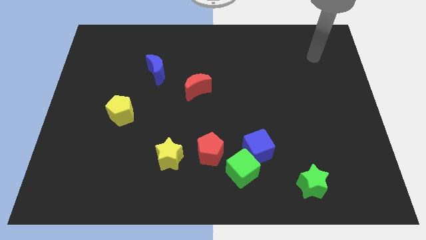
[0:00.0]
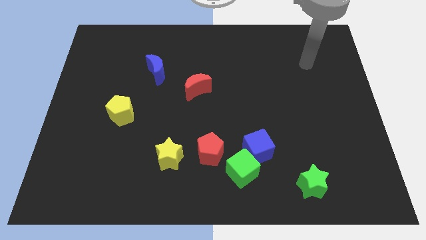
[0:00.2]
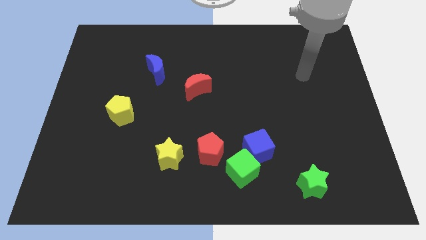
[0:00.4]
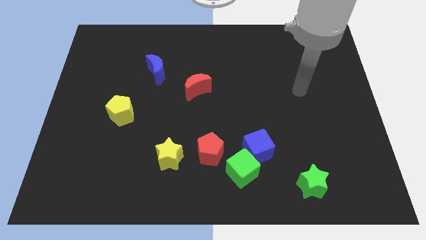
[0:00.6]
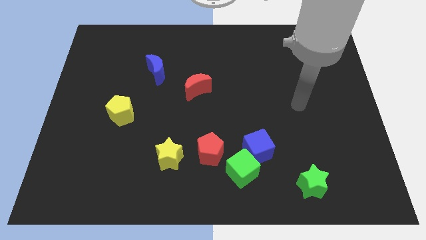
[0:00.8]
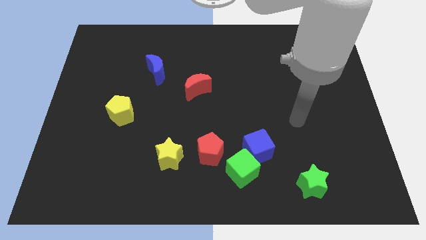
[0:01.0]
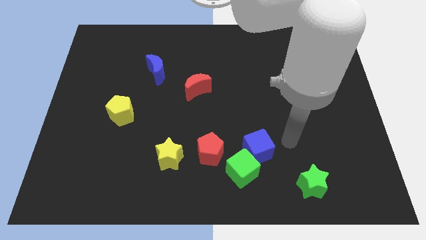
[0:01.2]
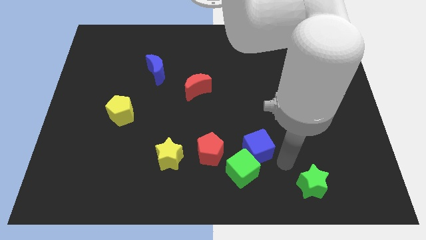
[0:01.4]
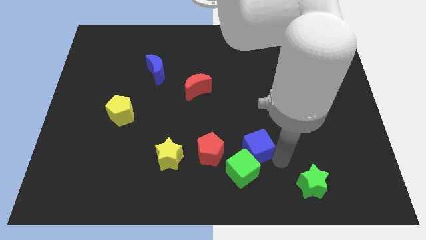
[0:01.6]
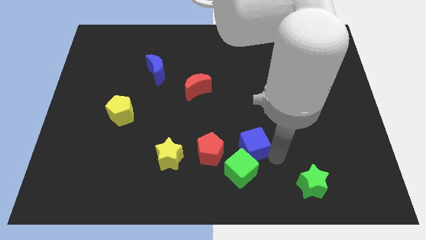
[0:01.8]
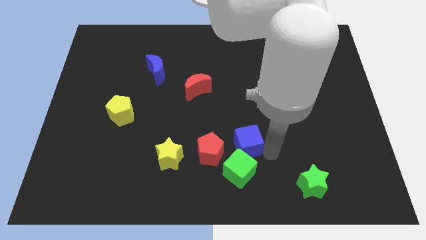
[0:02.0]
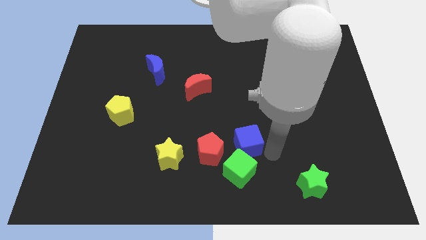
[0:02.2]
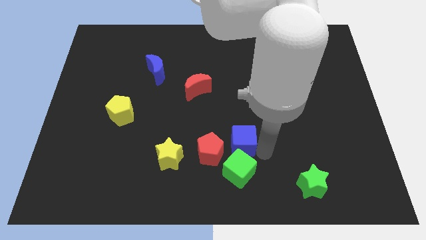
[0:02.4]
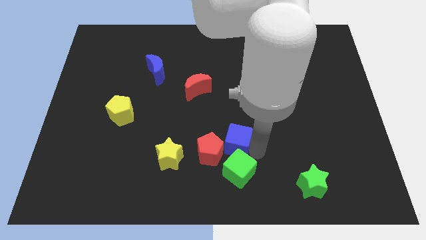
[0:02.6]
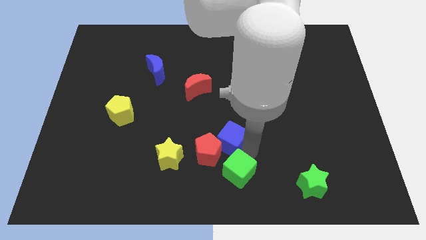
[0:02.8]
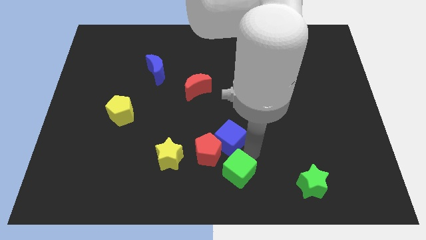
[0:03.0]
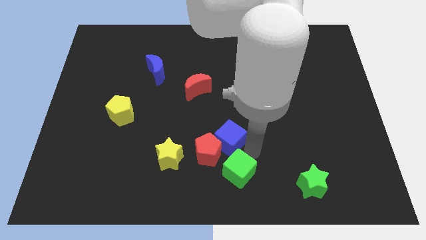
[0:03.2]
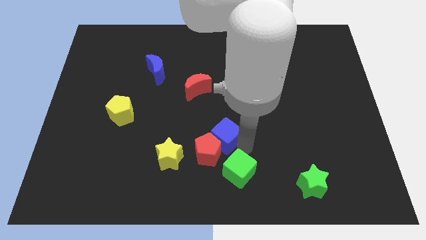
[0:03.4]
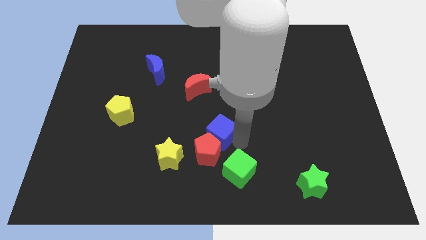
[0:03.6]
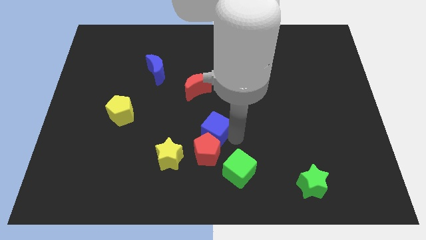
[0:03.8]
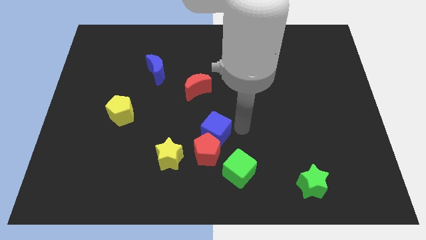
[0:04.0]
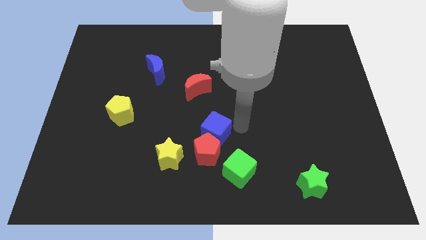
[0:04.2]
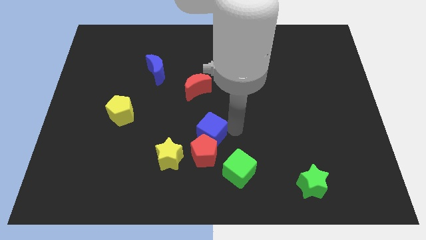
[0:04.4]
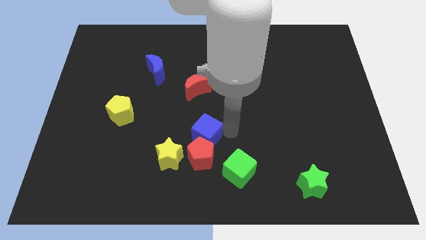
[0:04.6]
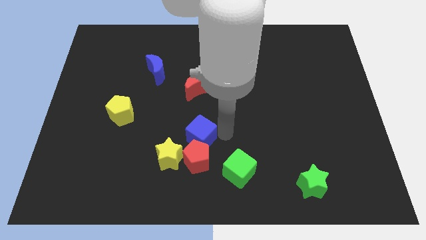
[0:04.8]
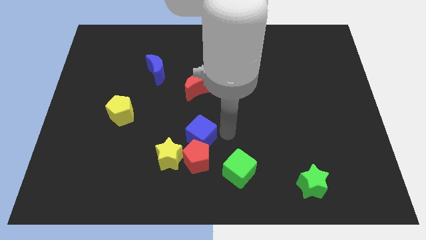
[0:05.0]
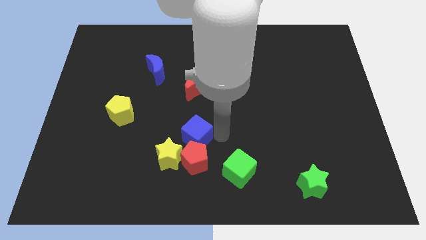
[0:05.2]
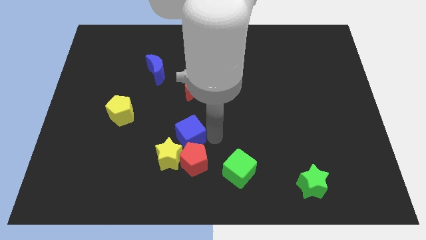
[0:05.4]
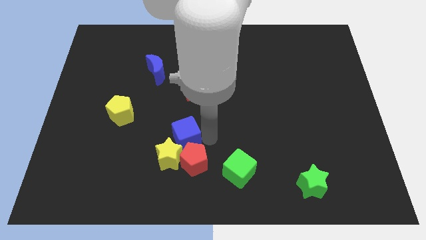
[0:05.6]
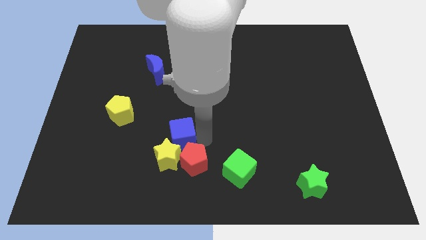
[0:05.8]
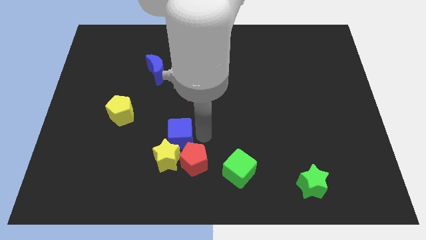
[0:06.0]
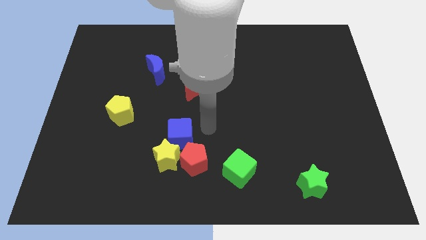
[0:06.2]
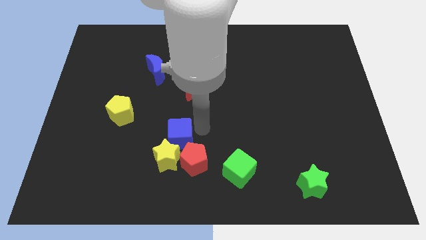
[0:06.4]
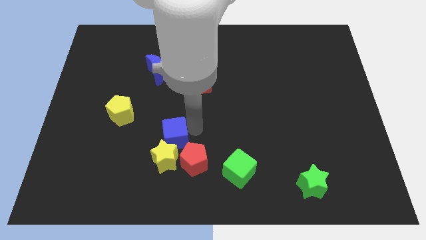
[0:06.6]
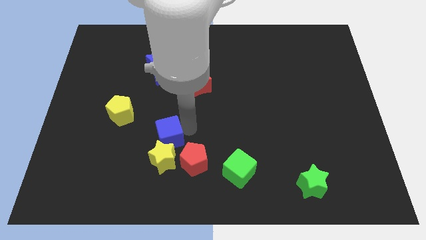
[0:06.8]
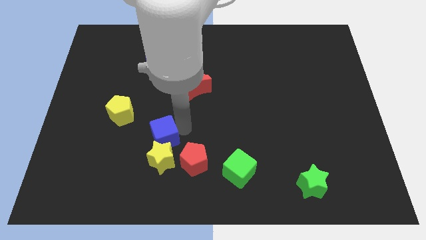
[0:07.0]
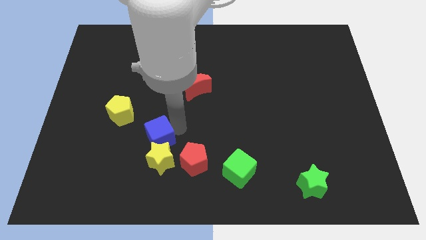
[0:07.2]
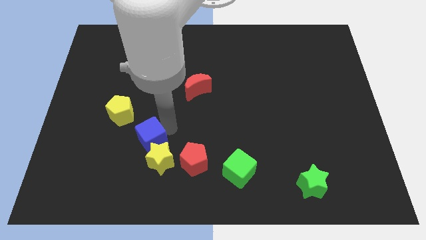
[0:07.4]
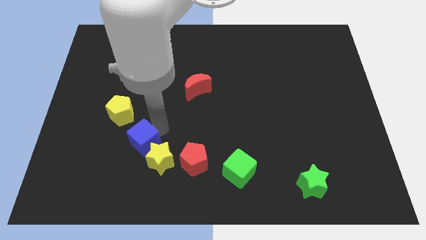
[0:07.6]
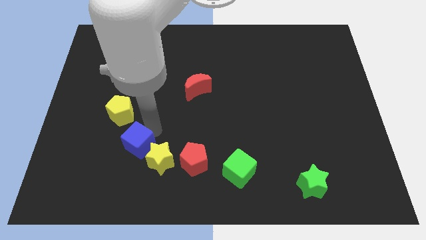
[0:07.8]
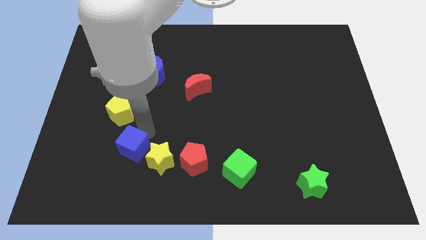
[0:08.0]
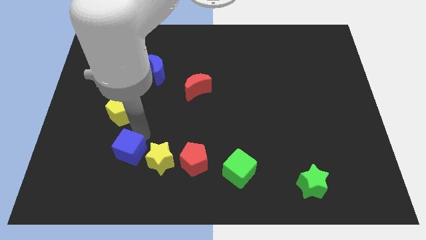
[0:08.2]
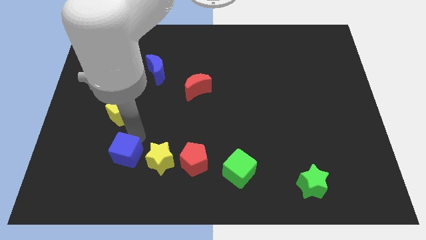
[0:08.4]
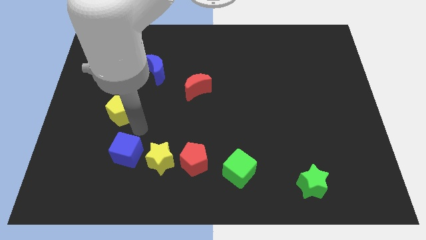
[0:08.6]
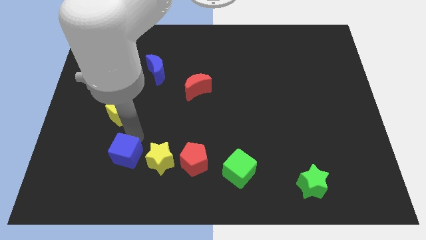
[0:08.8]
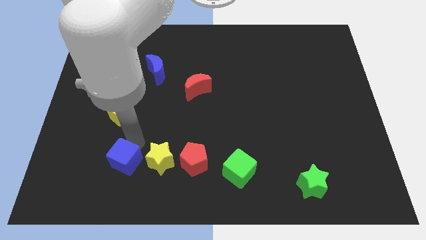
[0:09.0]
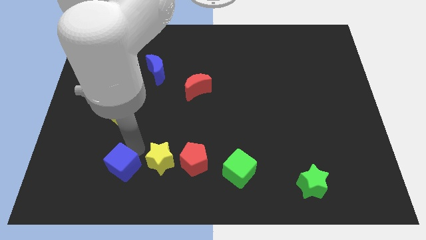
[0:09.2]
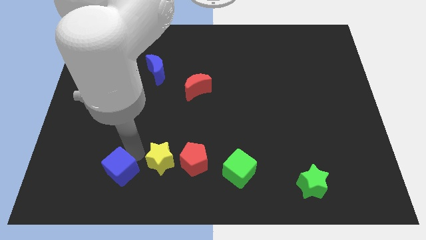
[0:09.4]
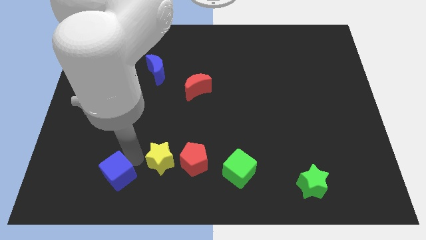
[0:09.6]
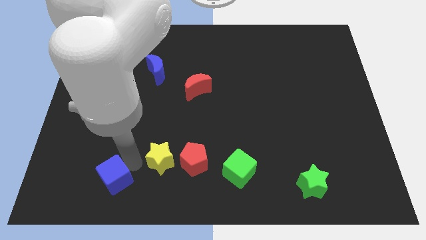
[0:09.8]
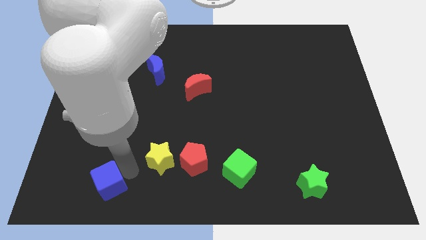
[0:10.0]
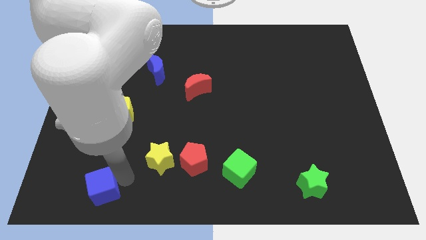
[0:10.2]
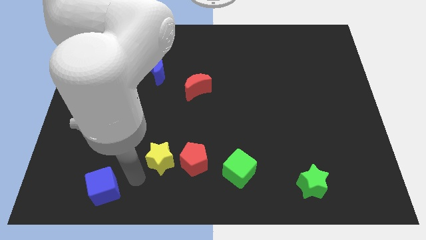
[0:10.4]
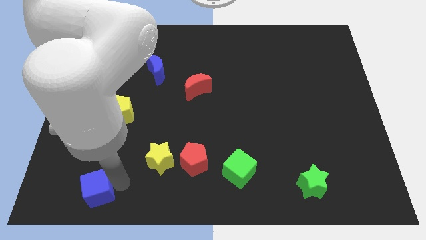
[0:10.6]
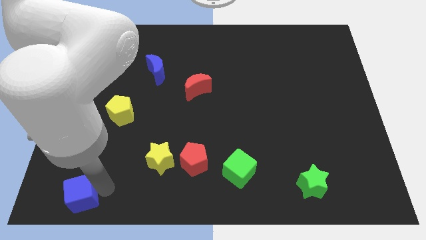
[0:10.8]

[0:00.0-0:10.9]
slide the blue cube to the lower left corner
